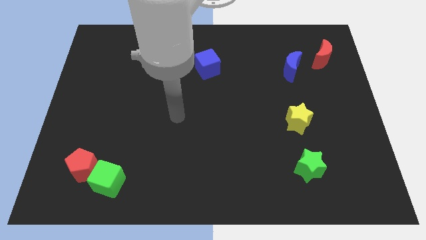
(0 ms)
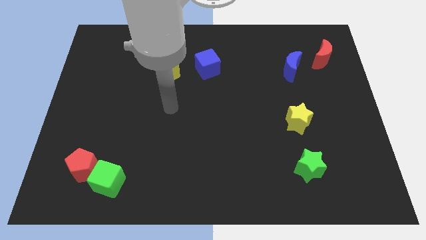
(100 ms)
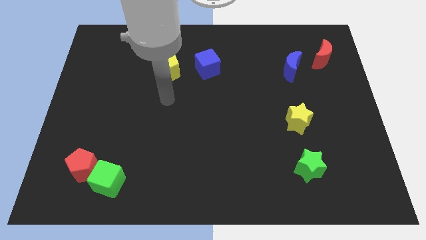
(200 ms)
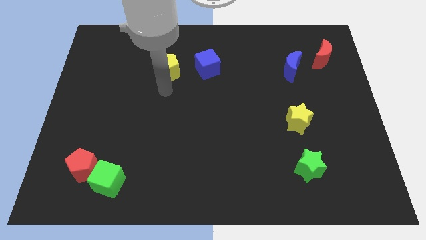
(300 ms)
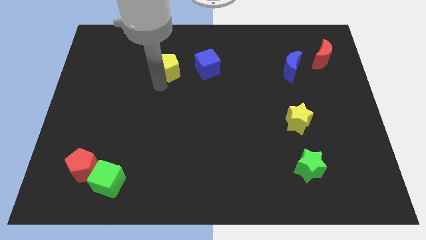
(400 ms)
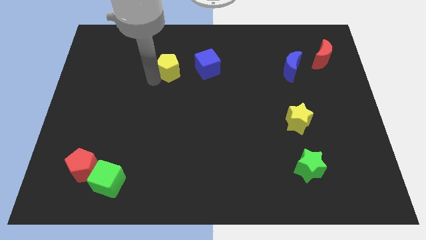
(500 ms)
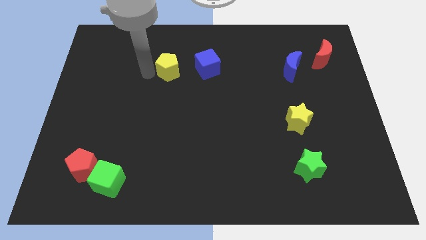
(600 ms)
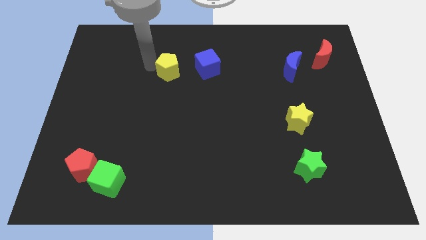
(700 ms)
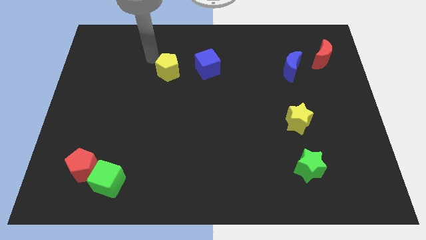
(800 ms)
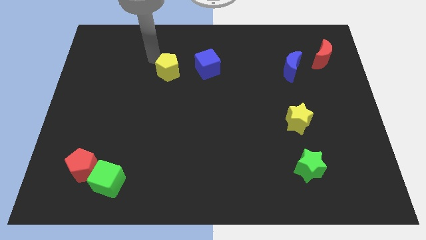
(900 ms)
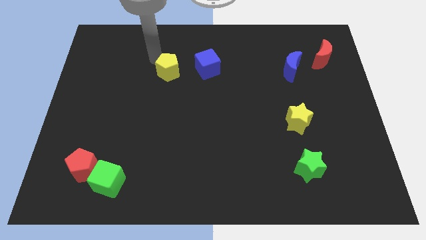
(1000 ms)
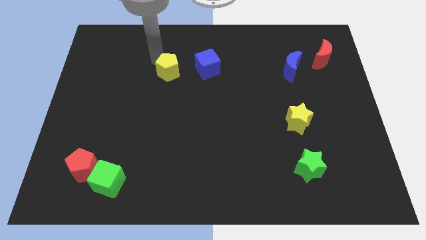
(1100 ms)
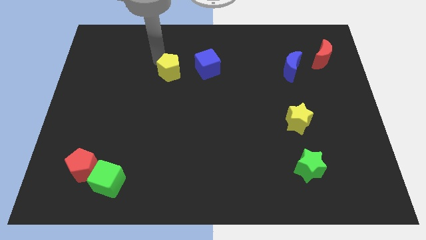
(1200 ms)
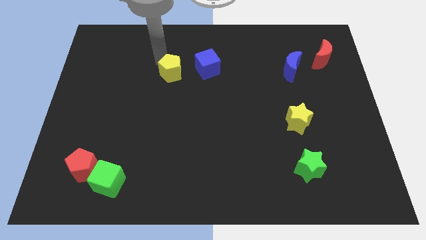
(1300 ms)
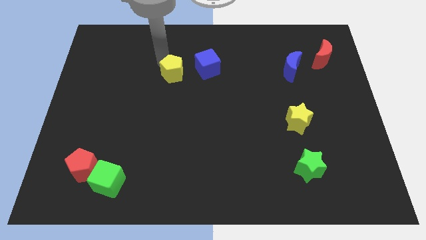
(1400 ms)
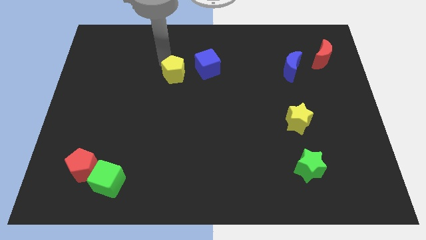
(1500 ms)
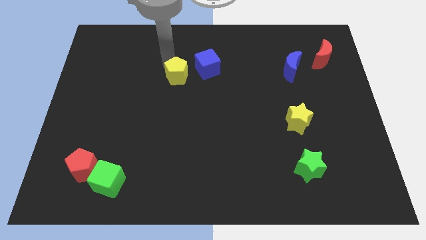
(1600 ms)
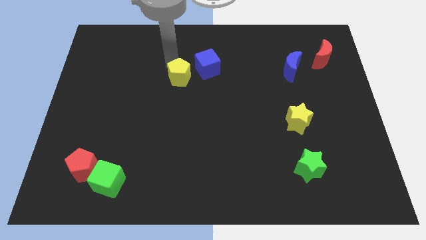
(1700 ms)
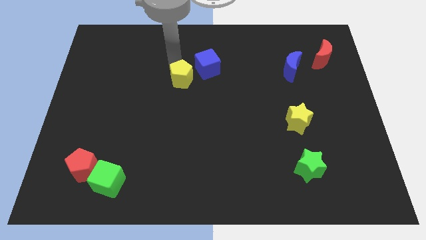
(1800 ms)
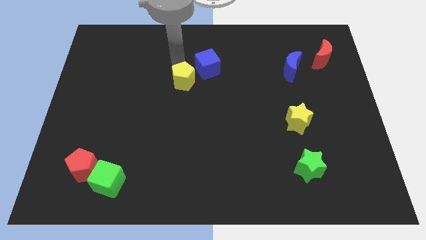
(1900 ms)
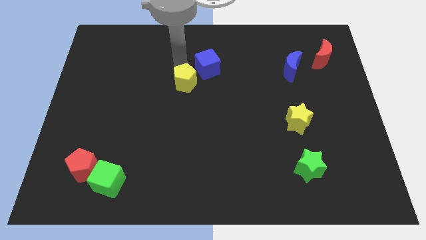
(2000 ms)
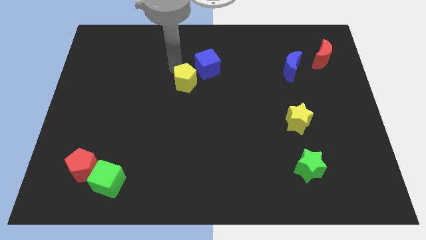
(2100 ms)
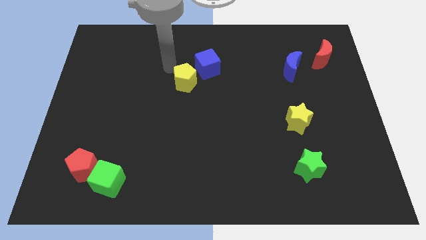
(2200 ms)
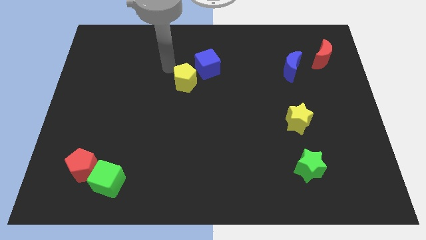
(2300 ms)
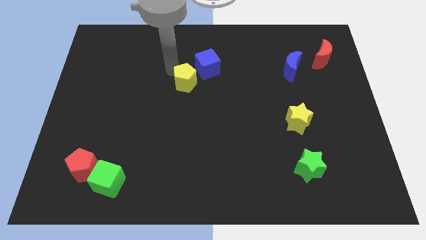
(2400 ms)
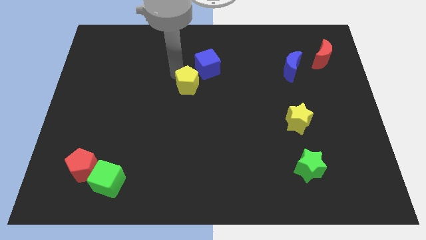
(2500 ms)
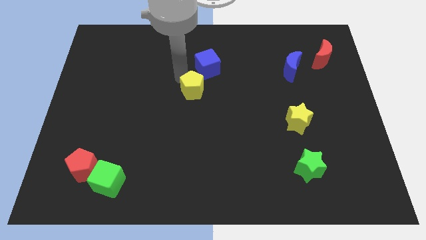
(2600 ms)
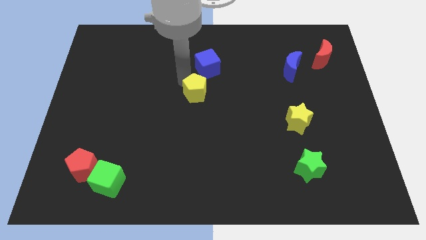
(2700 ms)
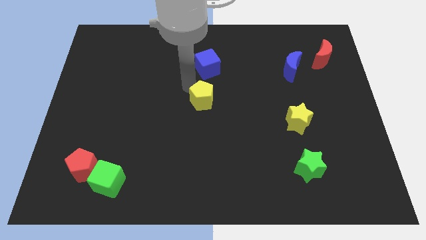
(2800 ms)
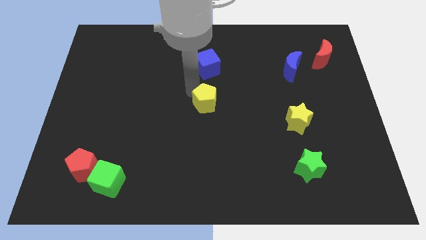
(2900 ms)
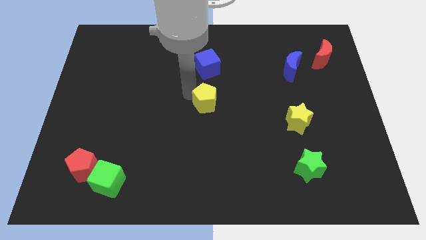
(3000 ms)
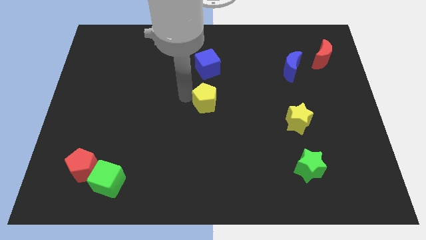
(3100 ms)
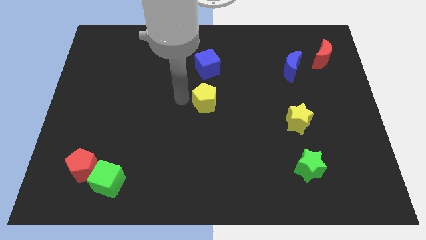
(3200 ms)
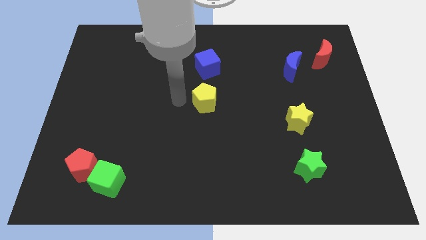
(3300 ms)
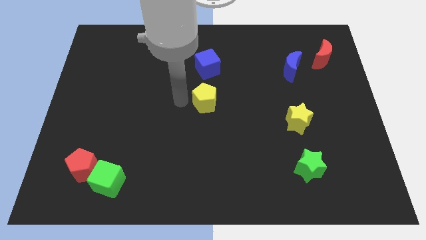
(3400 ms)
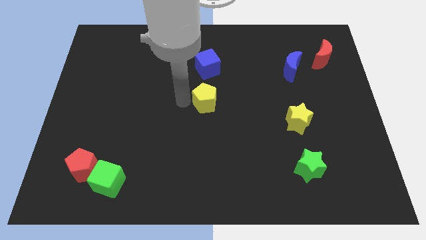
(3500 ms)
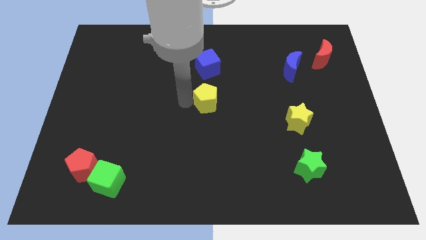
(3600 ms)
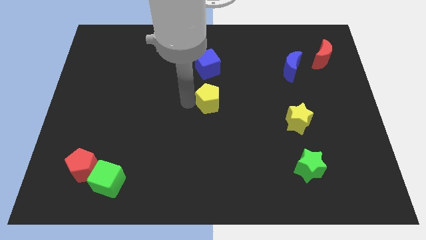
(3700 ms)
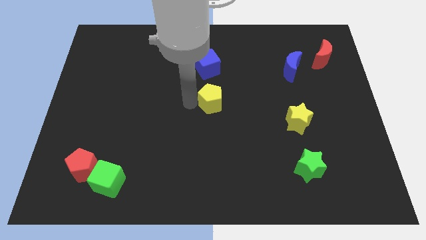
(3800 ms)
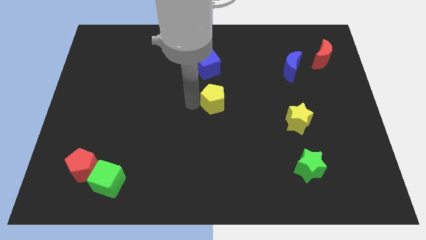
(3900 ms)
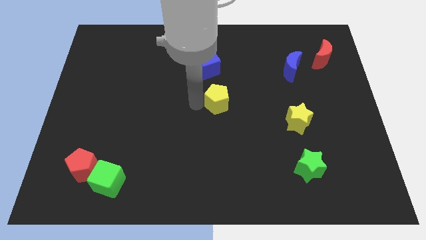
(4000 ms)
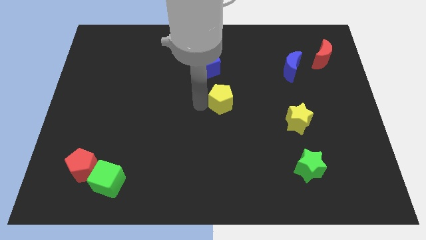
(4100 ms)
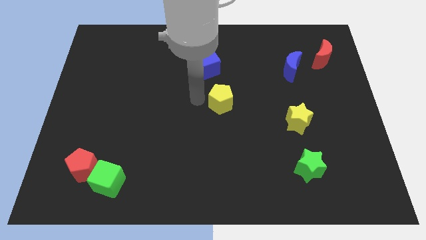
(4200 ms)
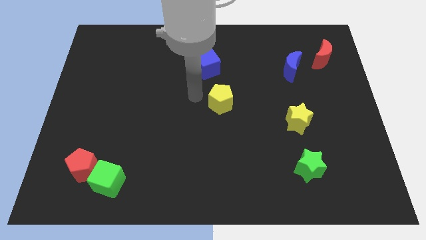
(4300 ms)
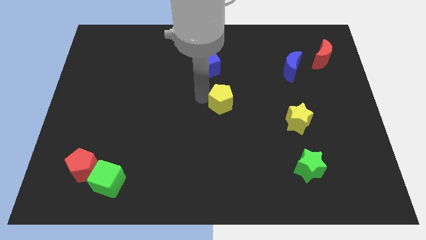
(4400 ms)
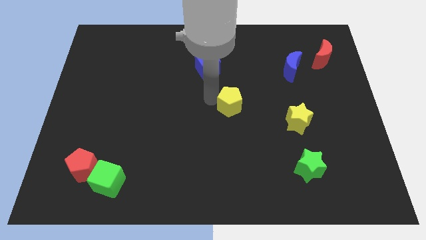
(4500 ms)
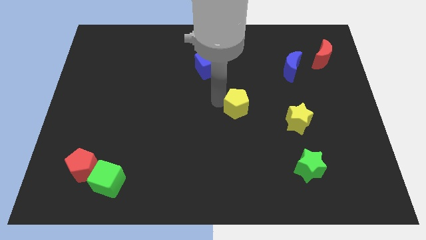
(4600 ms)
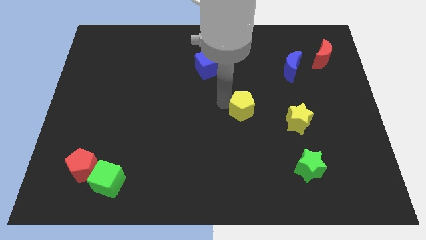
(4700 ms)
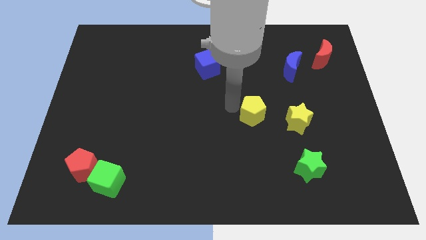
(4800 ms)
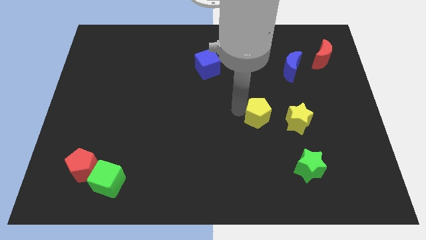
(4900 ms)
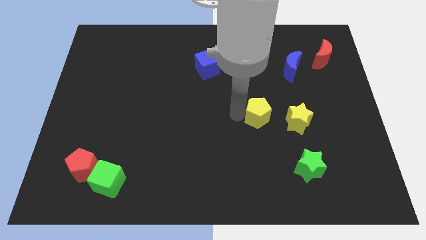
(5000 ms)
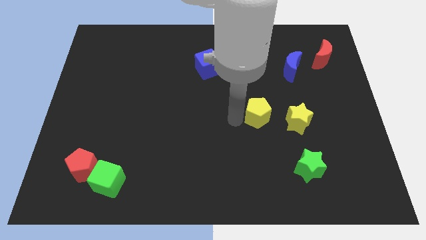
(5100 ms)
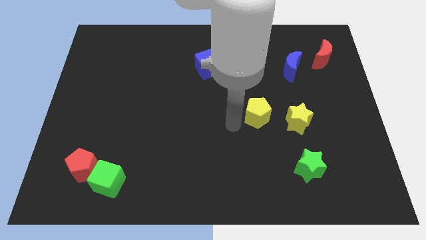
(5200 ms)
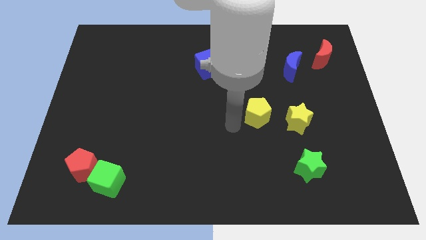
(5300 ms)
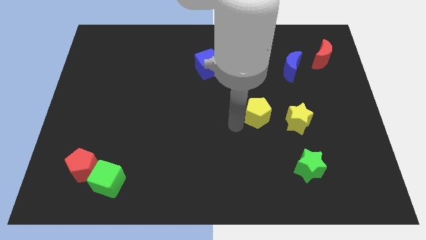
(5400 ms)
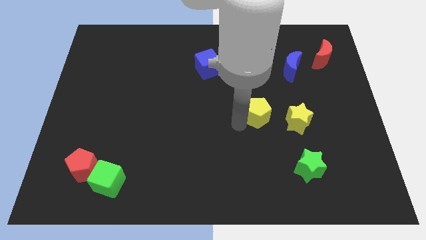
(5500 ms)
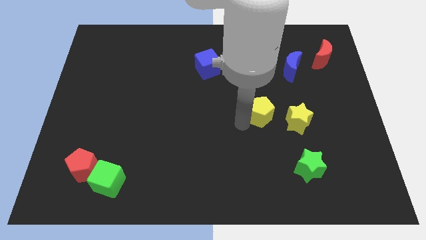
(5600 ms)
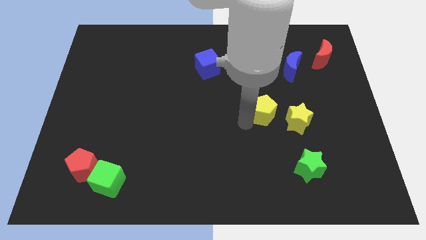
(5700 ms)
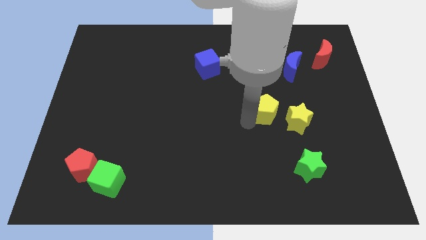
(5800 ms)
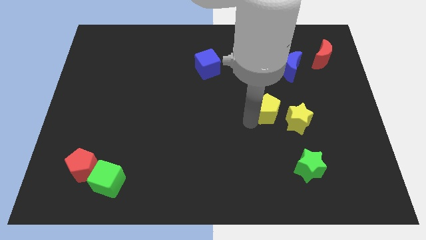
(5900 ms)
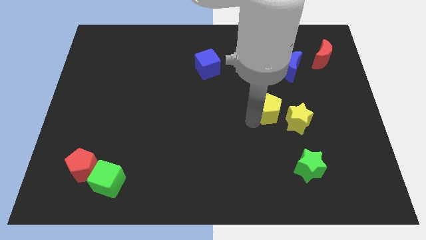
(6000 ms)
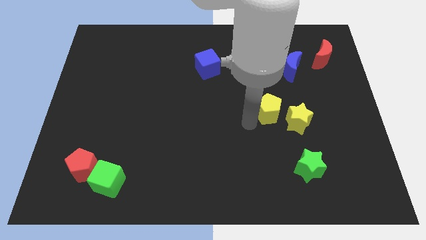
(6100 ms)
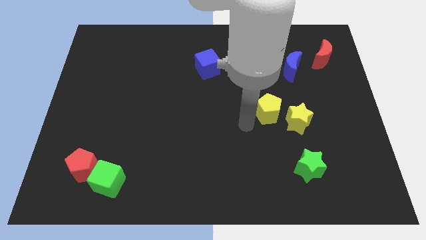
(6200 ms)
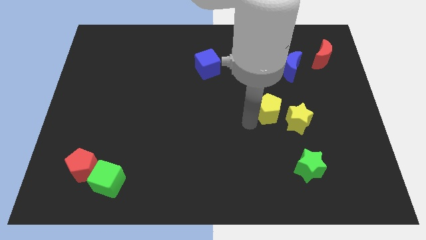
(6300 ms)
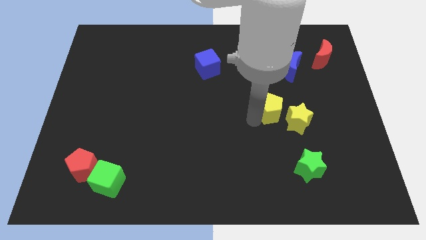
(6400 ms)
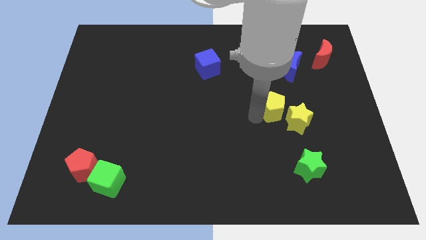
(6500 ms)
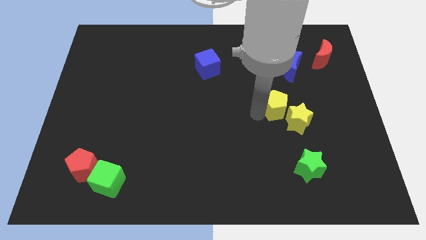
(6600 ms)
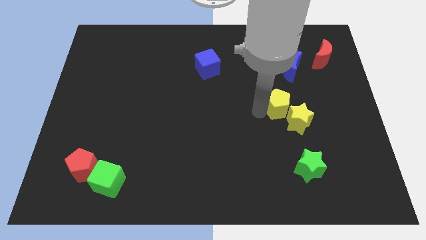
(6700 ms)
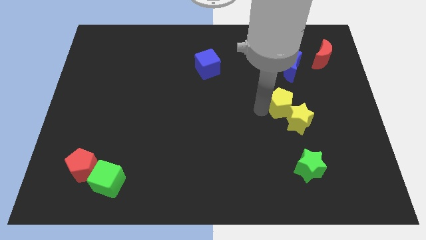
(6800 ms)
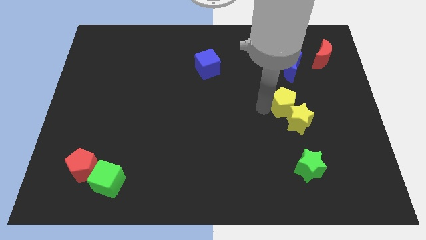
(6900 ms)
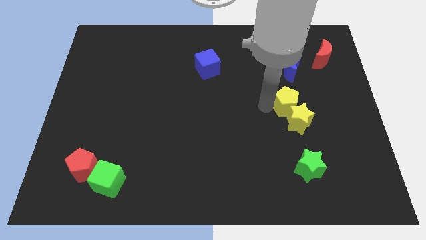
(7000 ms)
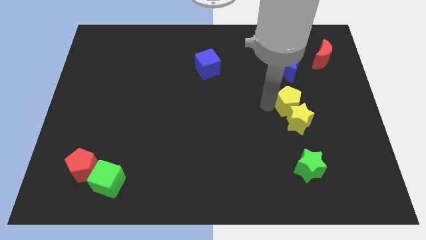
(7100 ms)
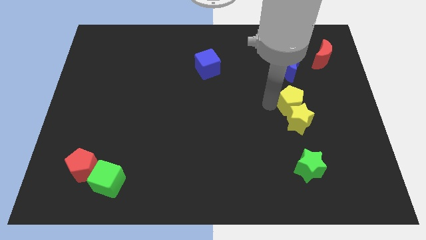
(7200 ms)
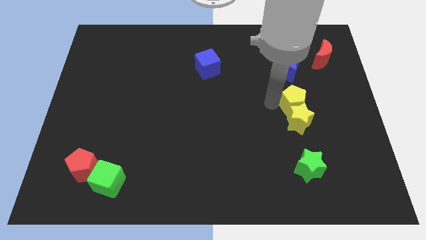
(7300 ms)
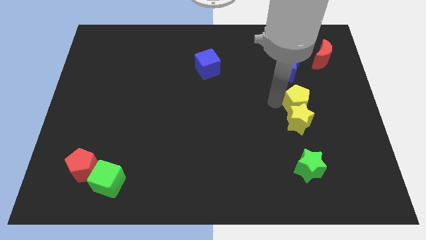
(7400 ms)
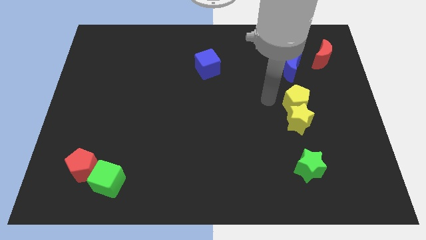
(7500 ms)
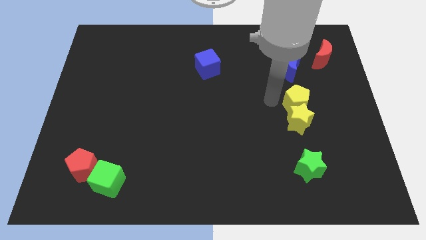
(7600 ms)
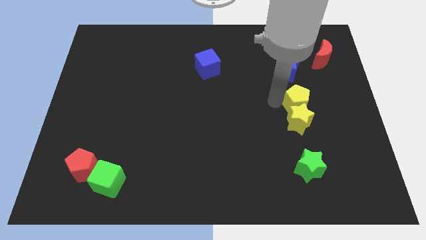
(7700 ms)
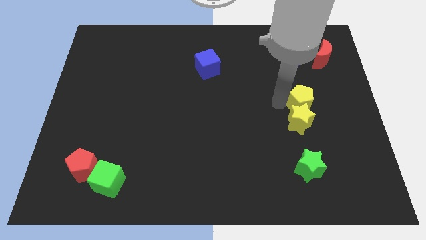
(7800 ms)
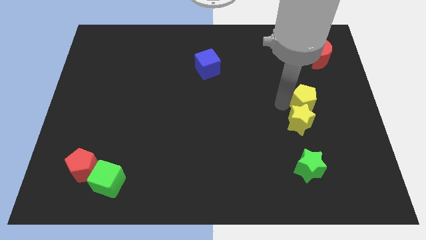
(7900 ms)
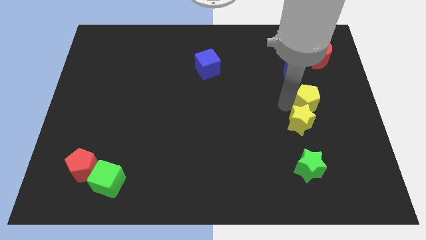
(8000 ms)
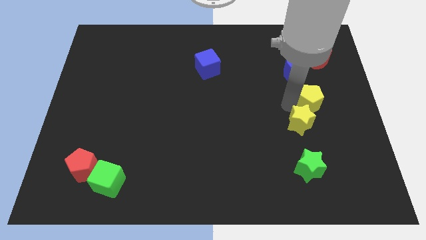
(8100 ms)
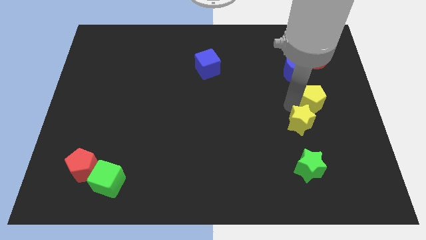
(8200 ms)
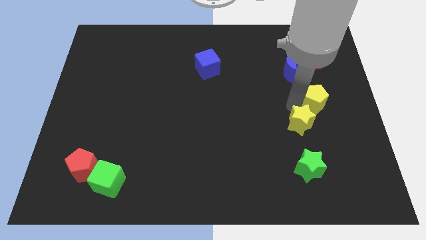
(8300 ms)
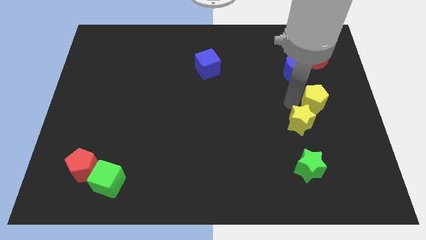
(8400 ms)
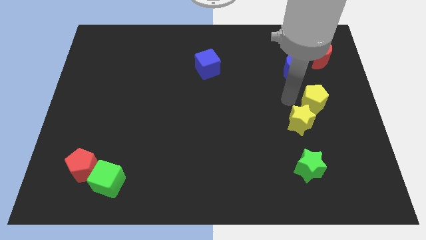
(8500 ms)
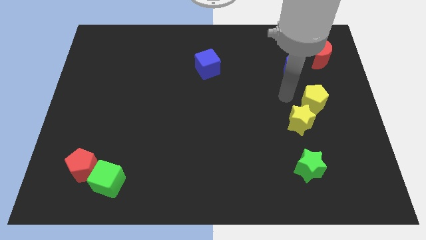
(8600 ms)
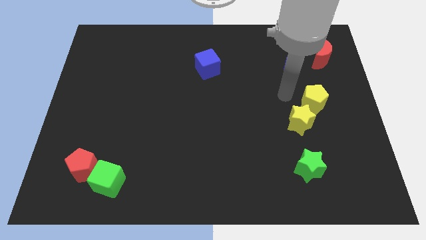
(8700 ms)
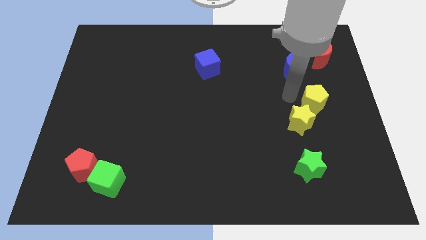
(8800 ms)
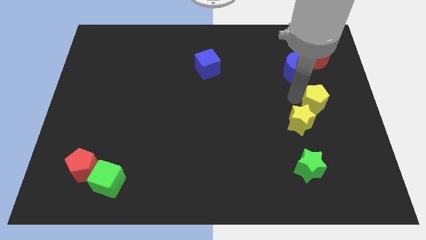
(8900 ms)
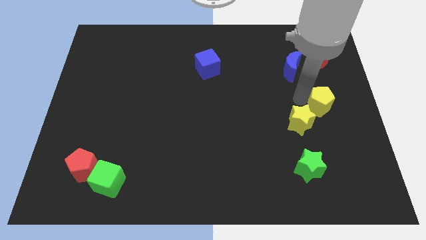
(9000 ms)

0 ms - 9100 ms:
slide the yellow pentagon to the center right
